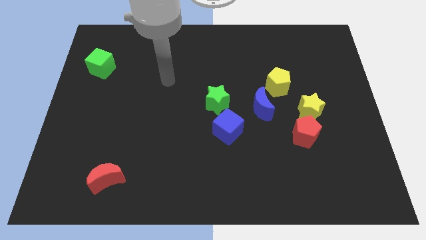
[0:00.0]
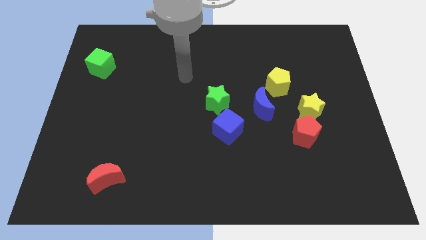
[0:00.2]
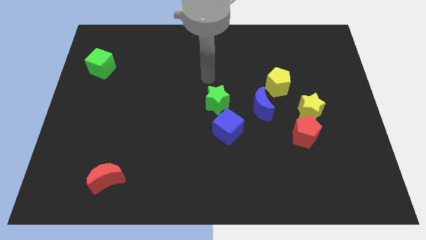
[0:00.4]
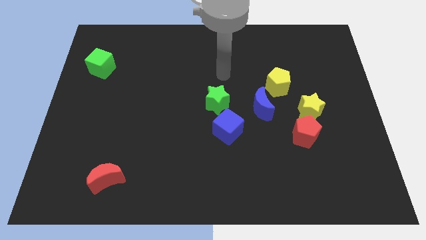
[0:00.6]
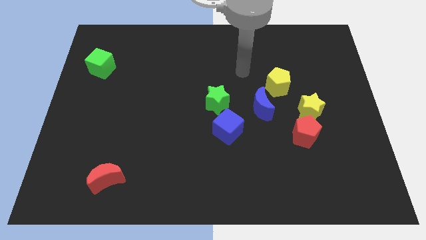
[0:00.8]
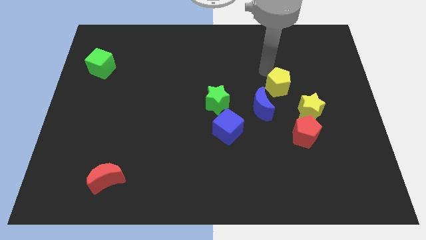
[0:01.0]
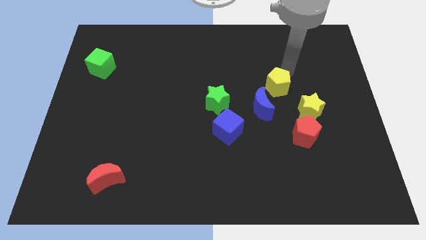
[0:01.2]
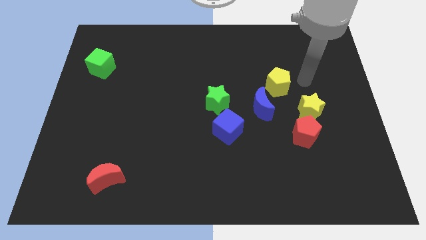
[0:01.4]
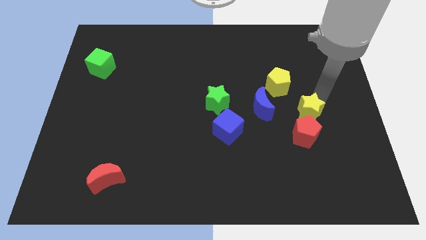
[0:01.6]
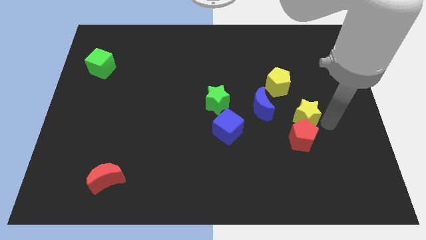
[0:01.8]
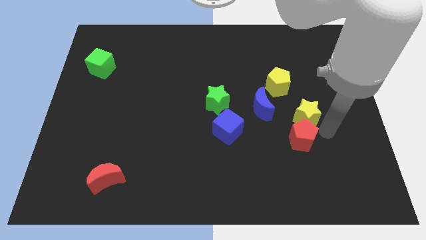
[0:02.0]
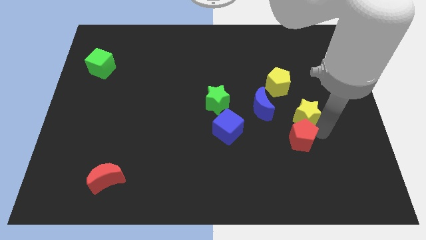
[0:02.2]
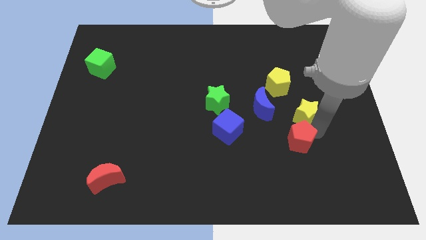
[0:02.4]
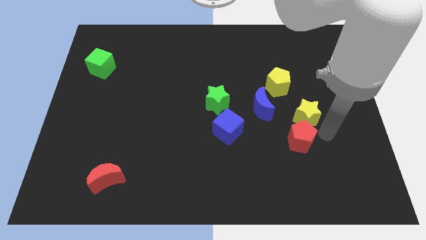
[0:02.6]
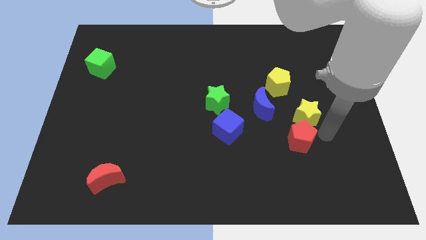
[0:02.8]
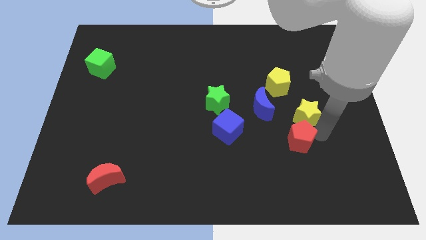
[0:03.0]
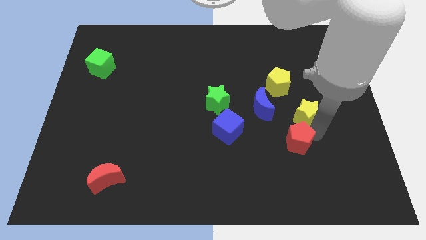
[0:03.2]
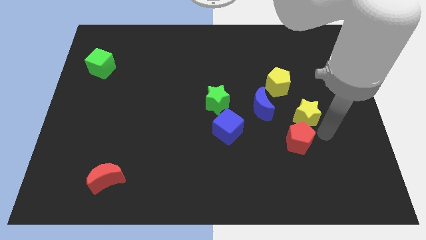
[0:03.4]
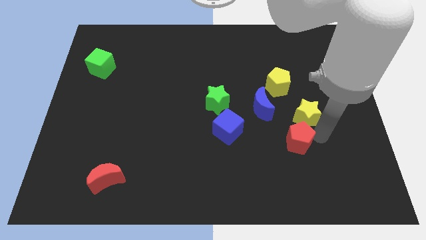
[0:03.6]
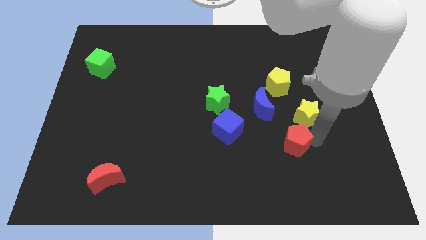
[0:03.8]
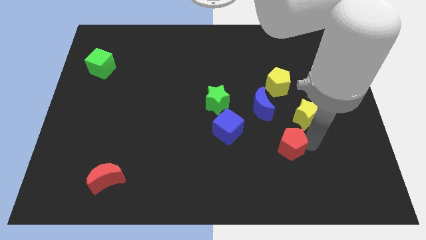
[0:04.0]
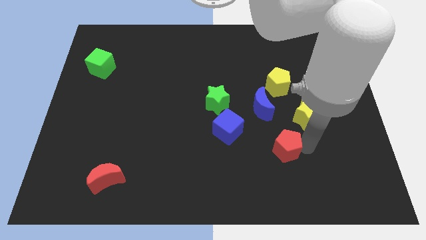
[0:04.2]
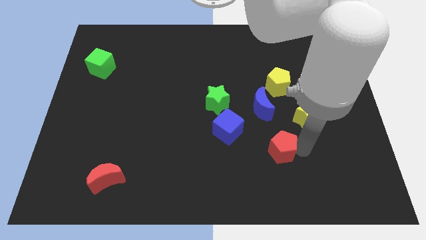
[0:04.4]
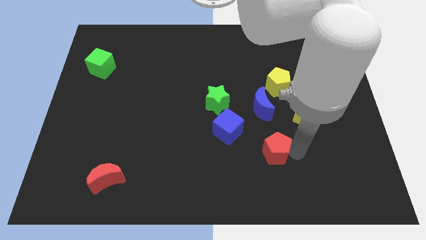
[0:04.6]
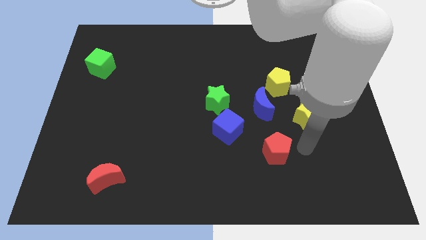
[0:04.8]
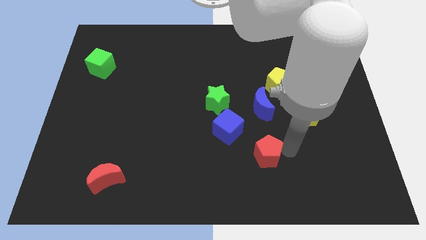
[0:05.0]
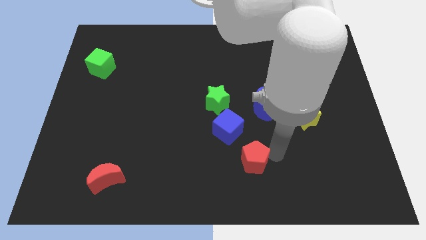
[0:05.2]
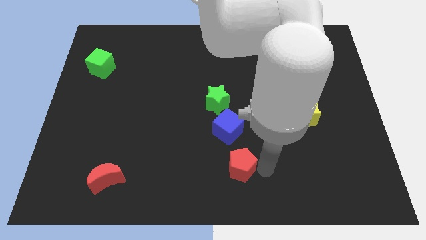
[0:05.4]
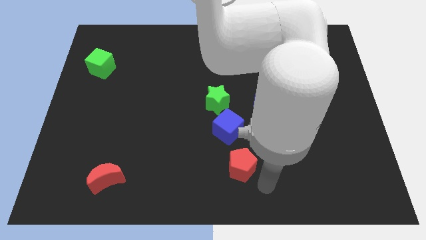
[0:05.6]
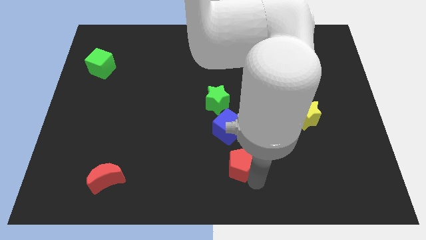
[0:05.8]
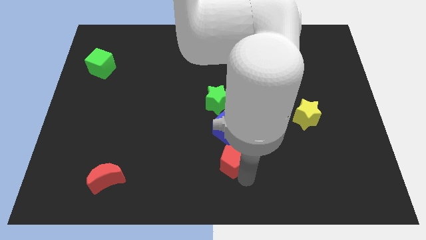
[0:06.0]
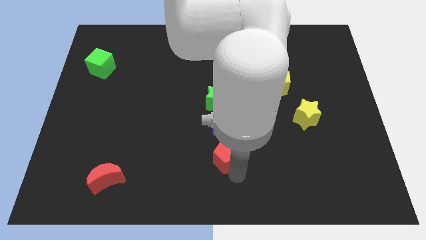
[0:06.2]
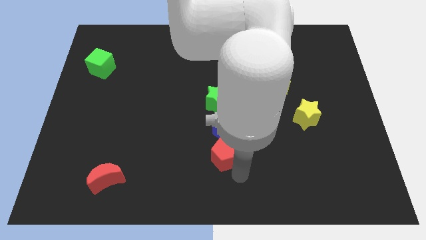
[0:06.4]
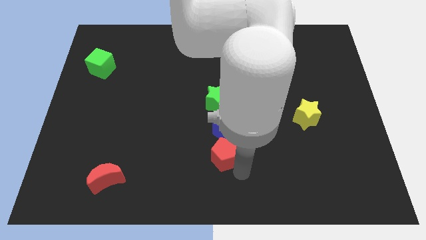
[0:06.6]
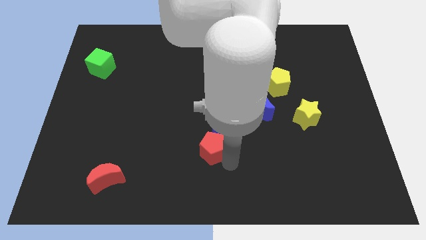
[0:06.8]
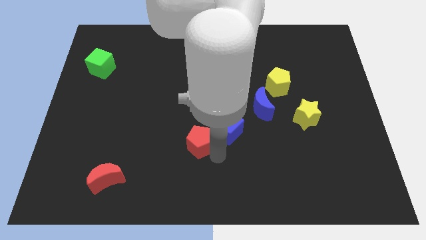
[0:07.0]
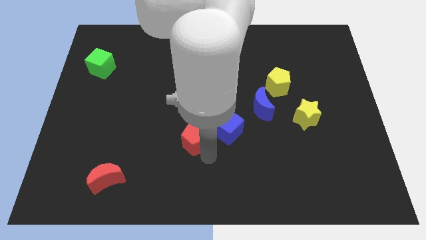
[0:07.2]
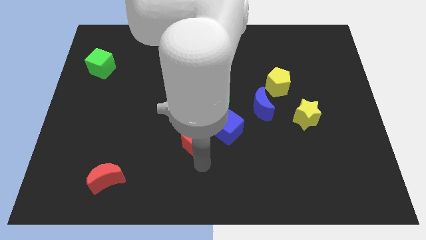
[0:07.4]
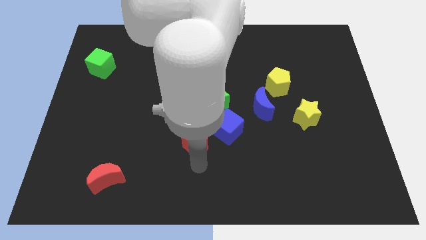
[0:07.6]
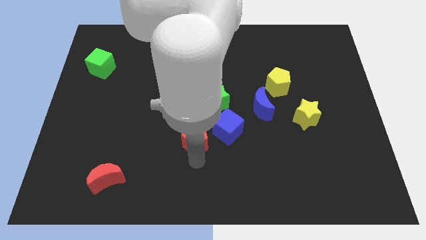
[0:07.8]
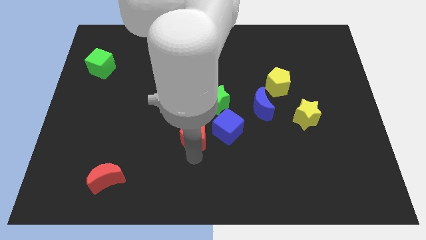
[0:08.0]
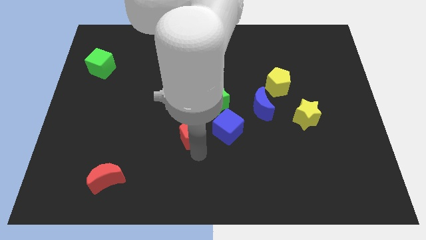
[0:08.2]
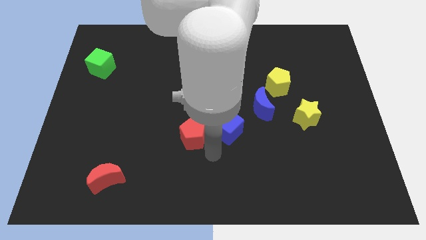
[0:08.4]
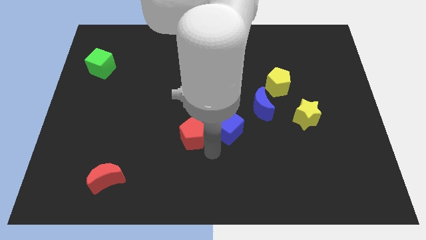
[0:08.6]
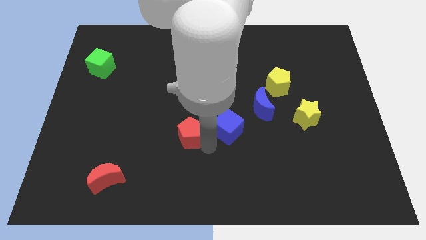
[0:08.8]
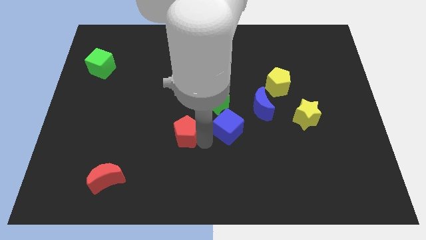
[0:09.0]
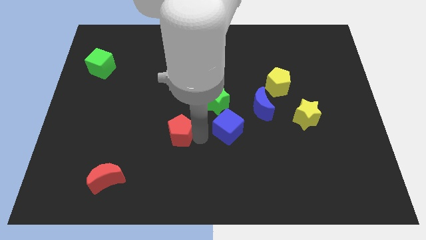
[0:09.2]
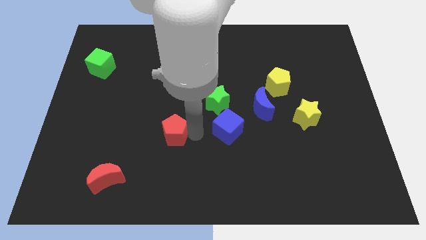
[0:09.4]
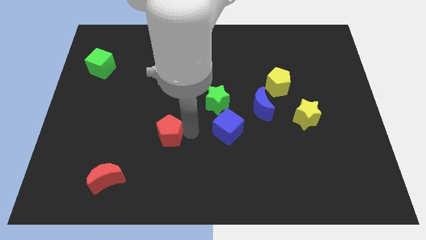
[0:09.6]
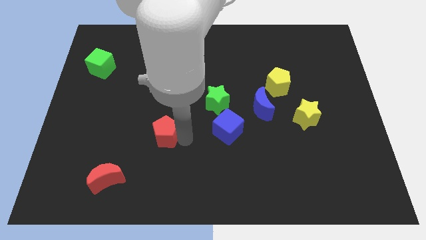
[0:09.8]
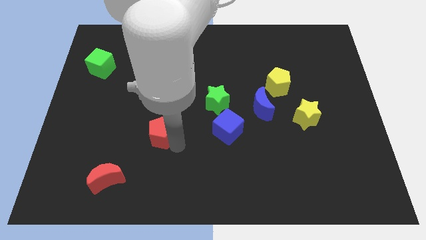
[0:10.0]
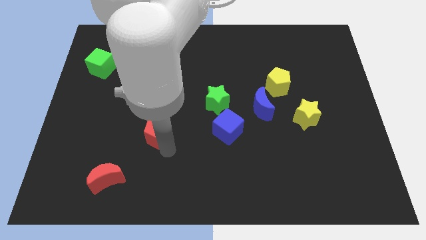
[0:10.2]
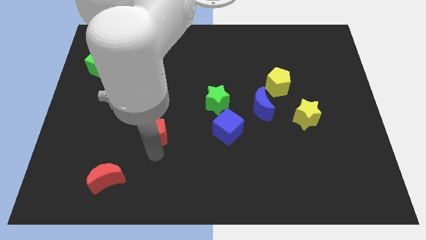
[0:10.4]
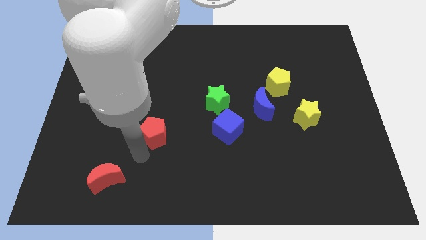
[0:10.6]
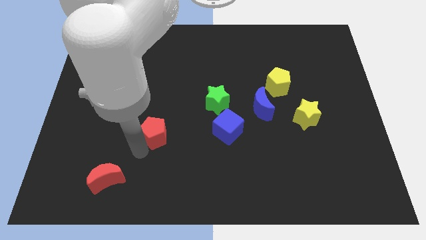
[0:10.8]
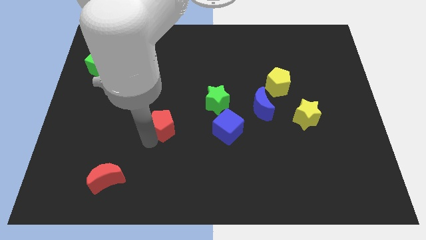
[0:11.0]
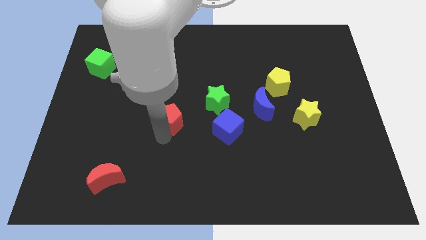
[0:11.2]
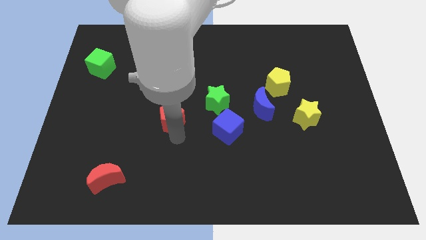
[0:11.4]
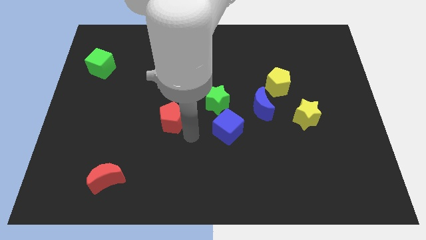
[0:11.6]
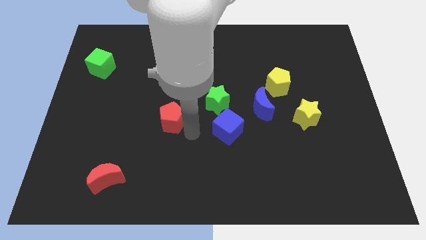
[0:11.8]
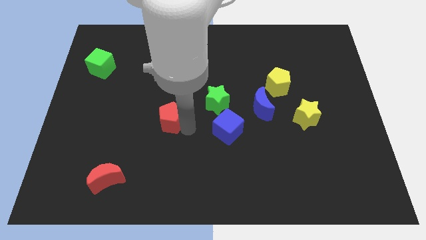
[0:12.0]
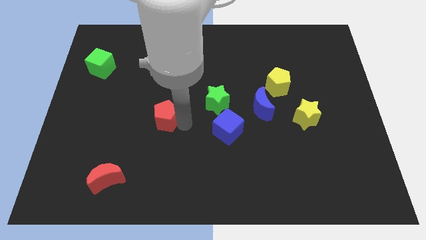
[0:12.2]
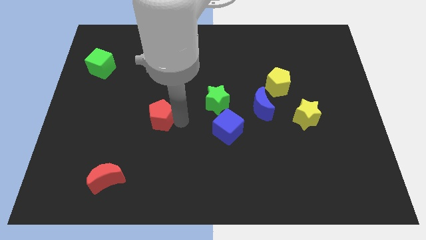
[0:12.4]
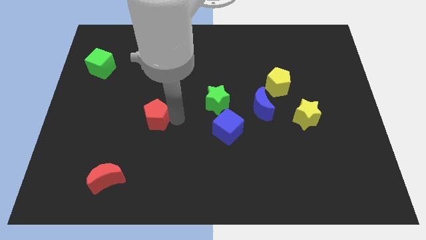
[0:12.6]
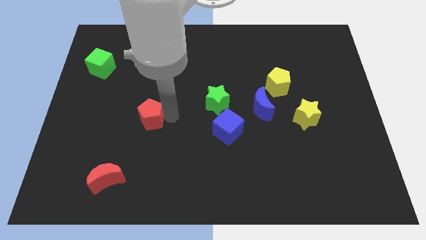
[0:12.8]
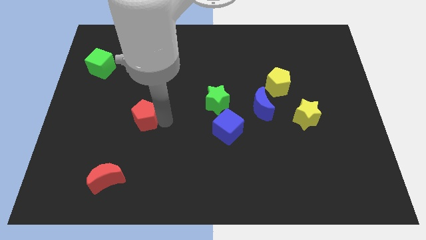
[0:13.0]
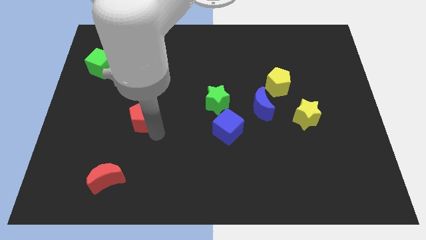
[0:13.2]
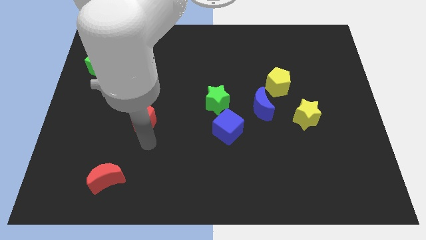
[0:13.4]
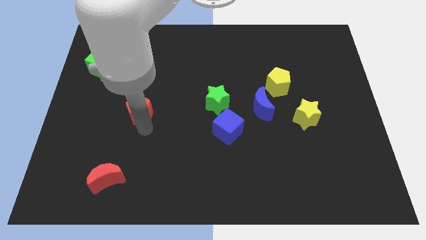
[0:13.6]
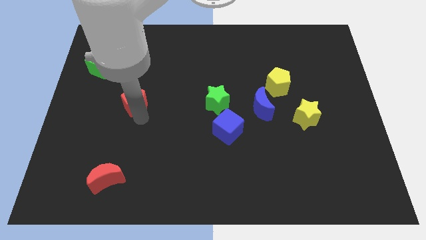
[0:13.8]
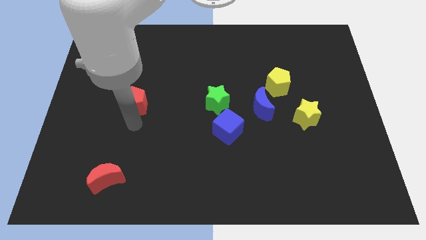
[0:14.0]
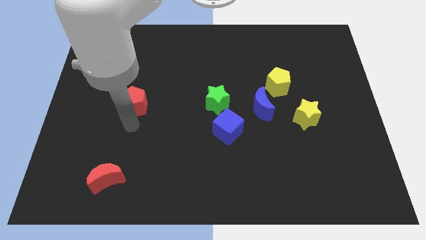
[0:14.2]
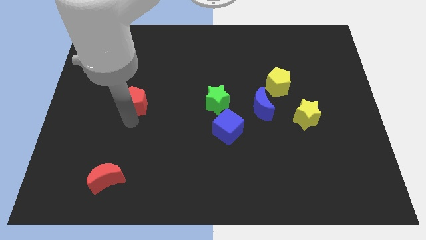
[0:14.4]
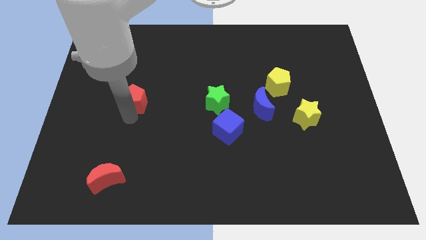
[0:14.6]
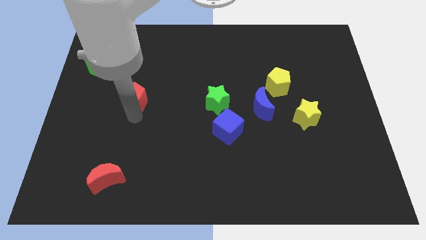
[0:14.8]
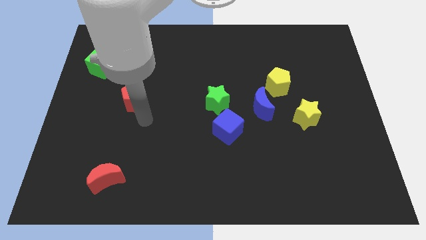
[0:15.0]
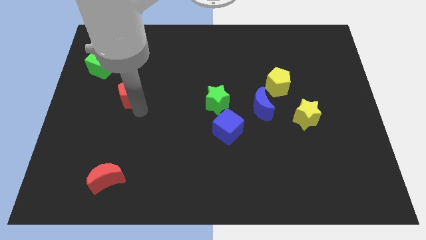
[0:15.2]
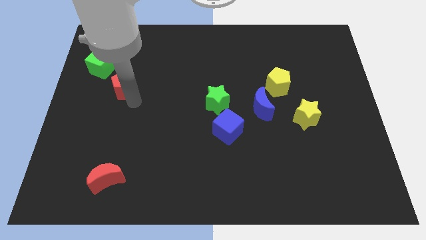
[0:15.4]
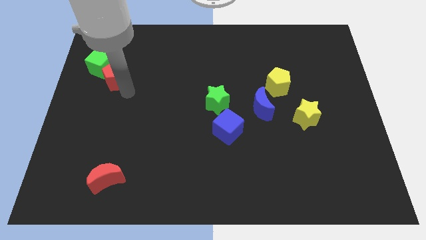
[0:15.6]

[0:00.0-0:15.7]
move the red pentagon towards the green cube
